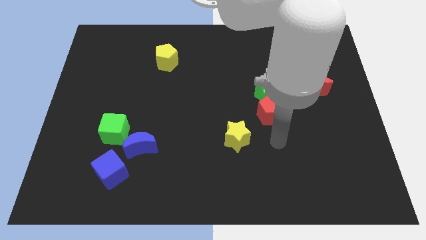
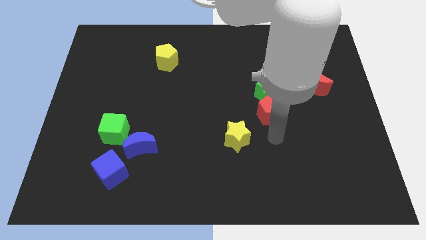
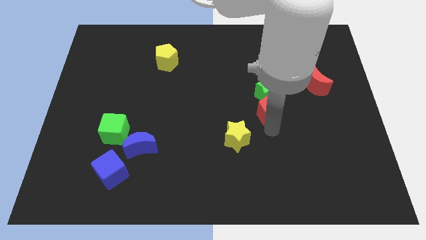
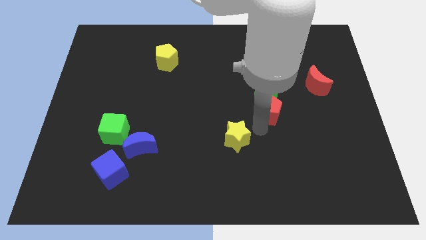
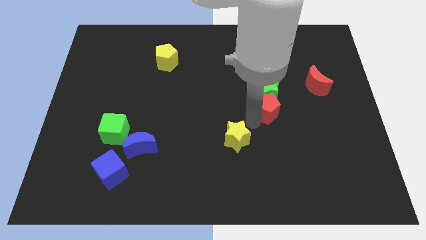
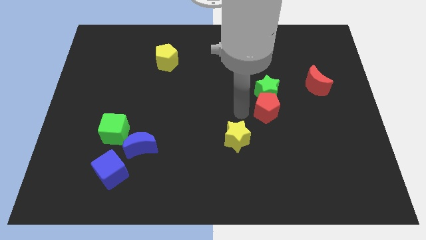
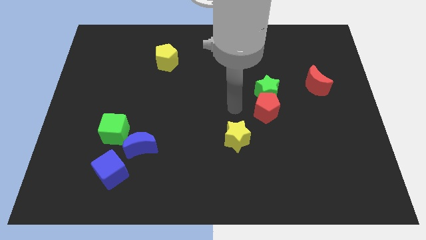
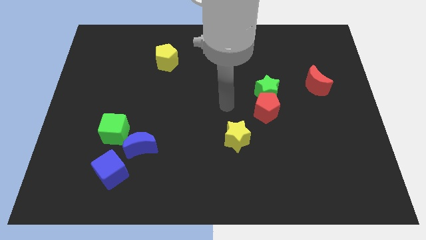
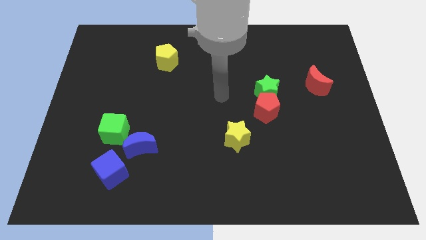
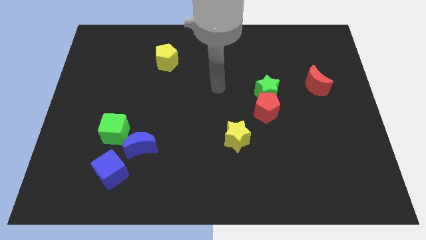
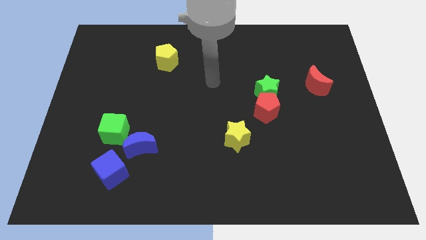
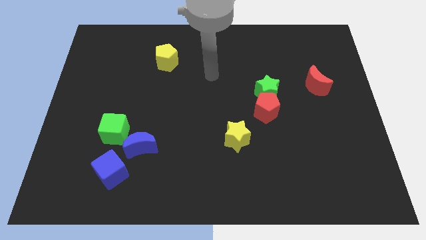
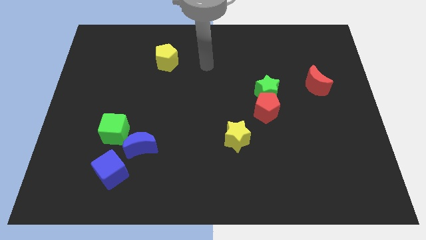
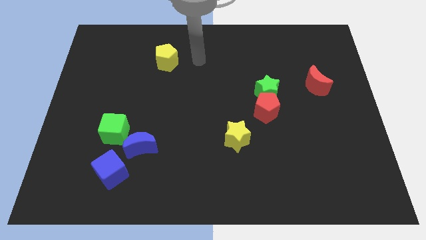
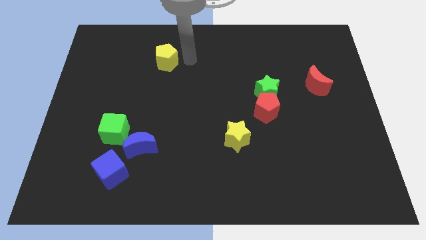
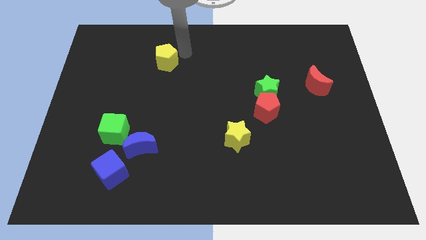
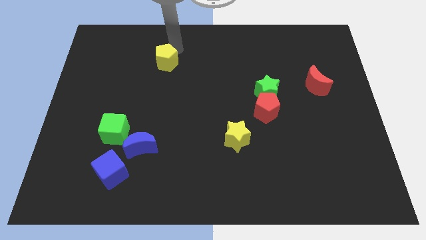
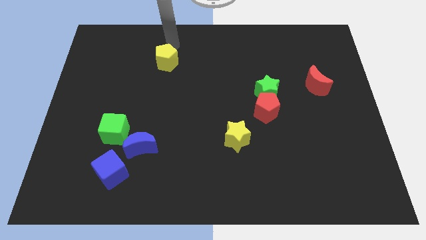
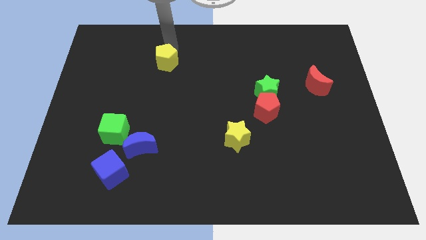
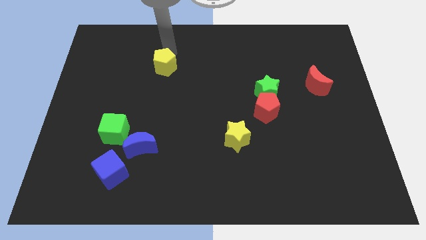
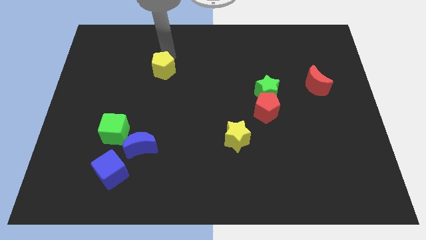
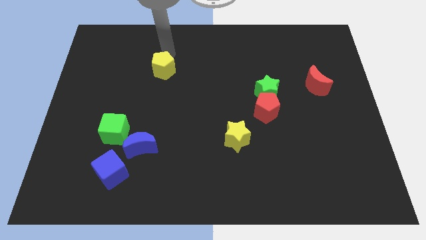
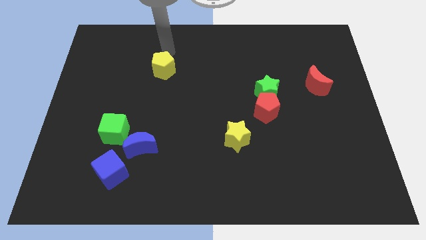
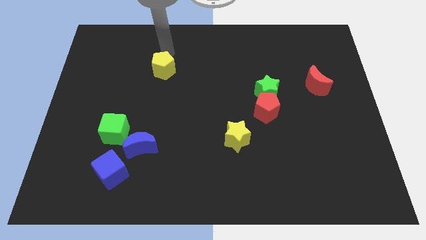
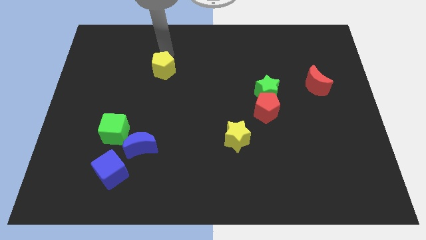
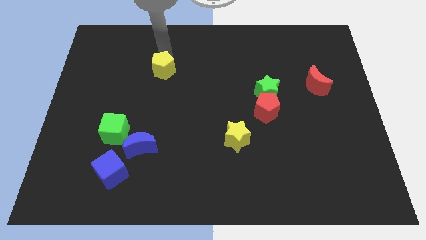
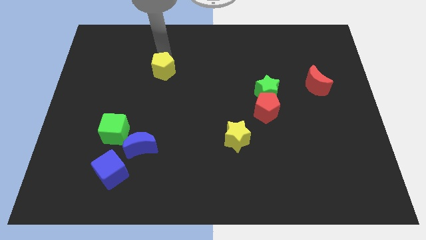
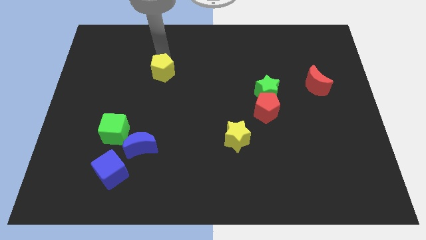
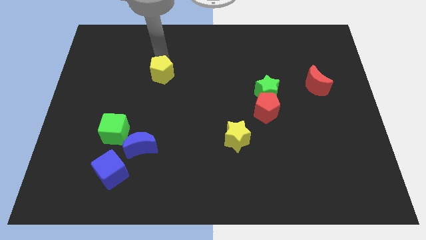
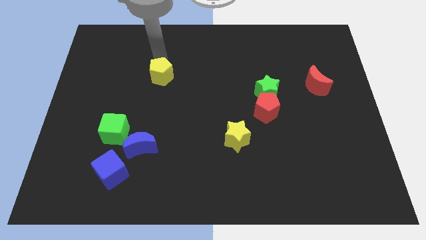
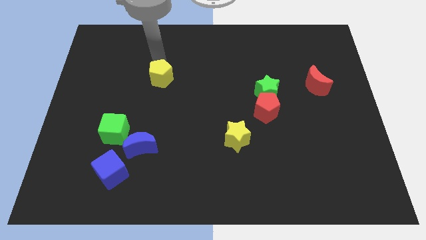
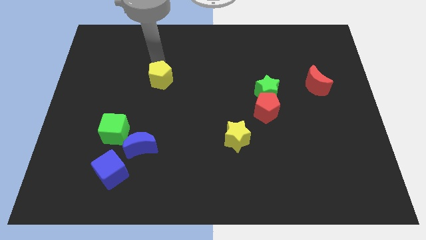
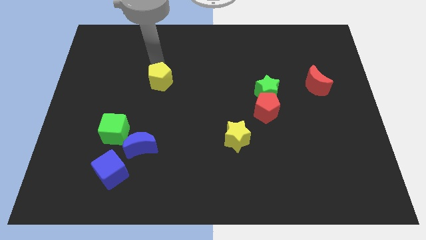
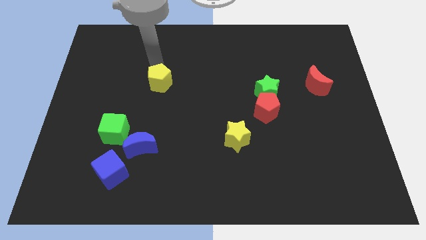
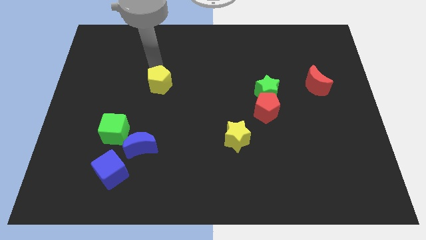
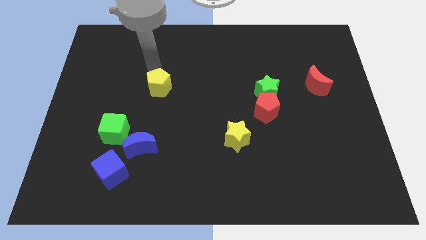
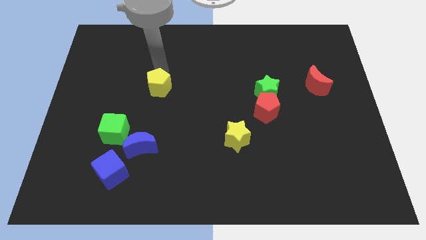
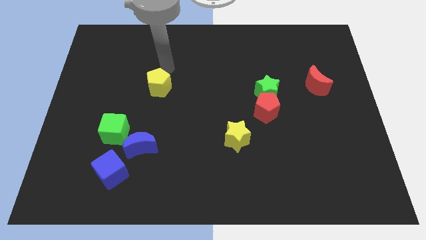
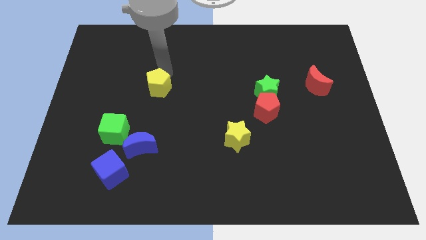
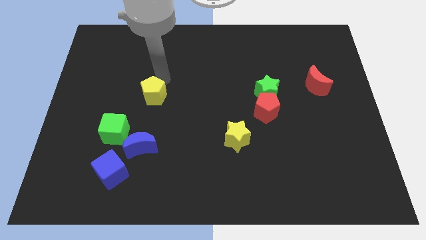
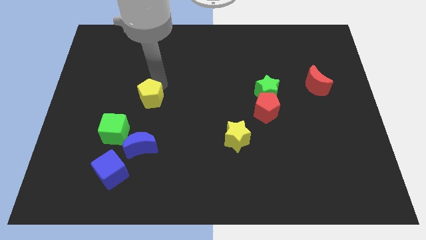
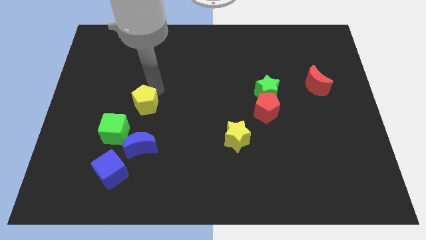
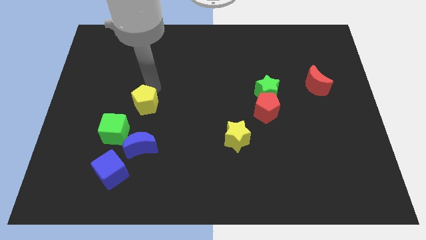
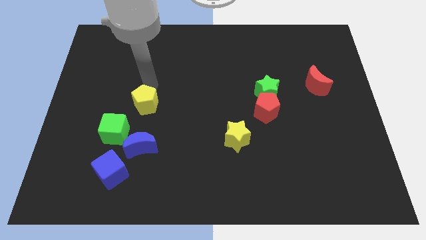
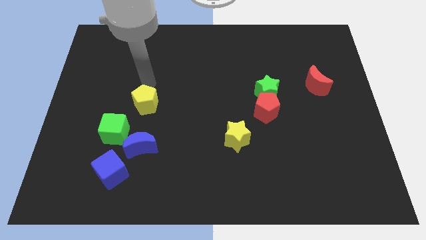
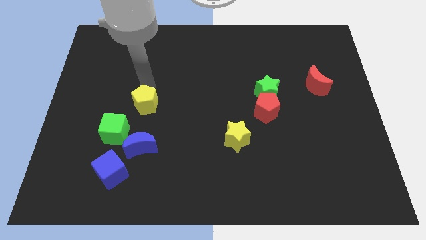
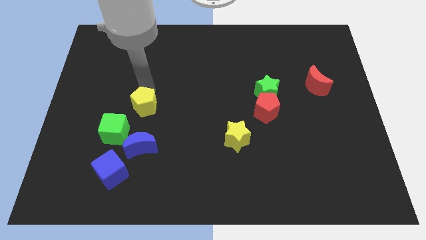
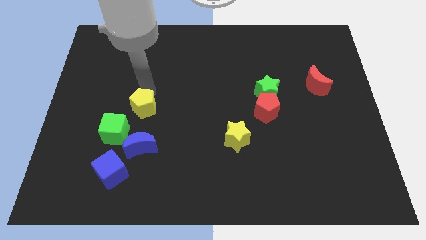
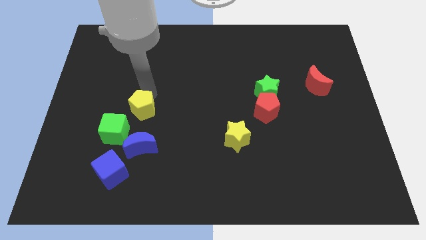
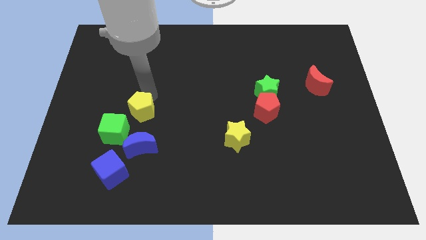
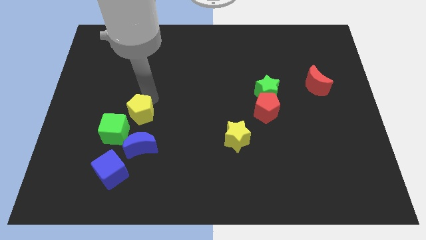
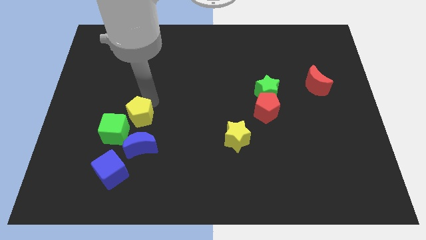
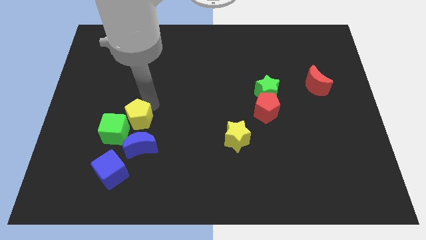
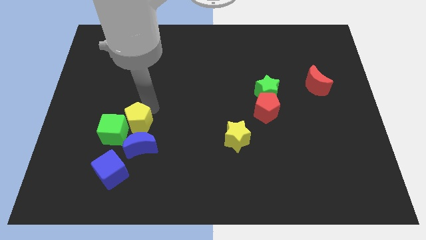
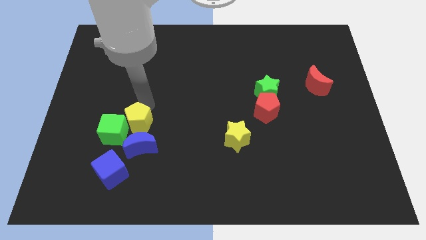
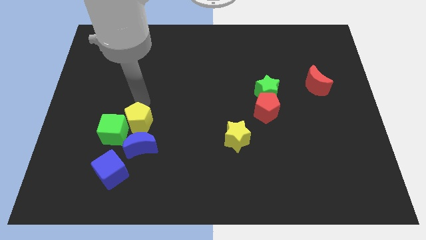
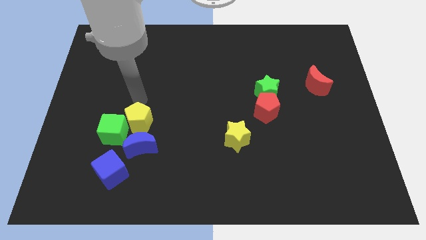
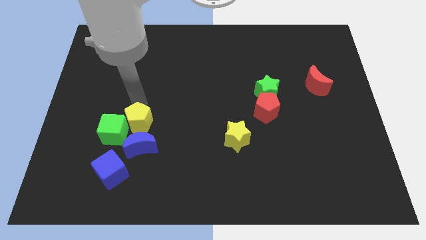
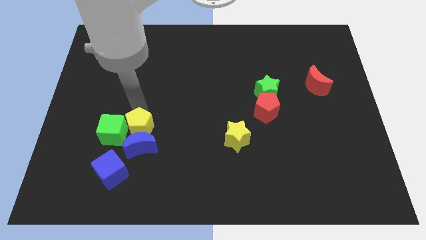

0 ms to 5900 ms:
slide the yellow pentagon close to the blue moon

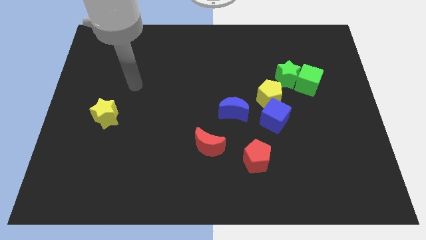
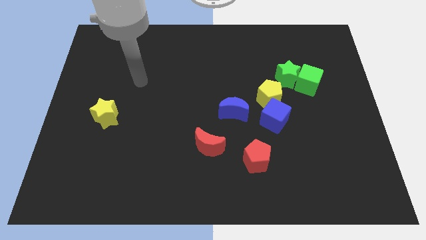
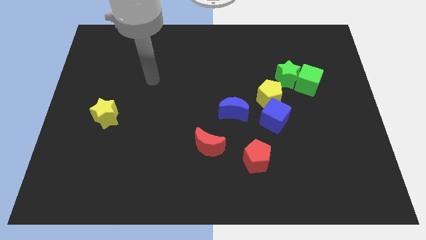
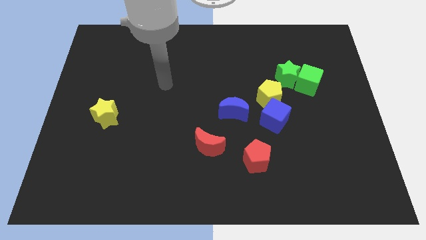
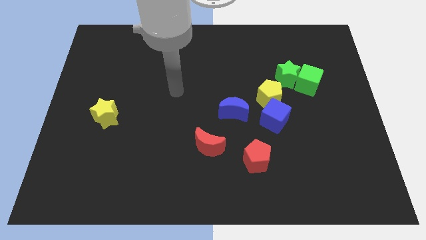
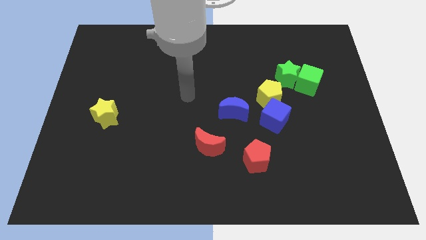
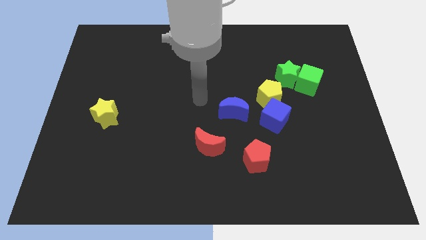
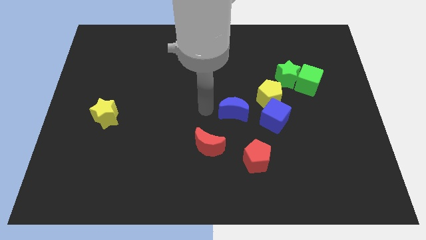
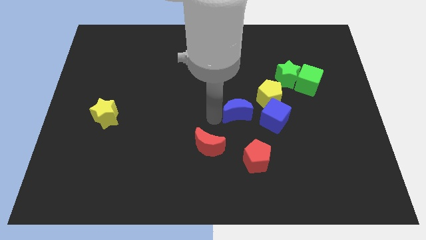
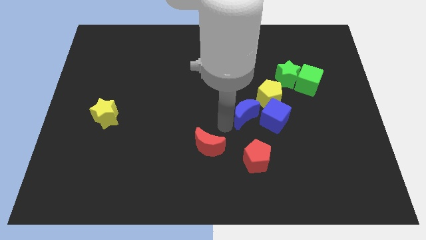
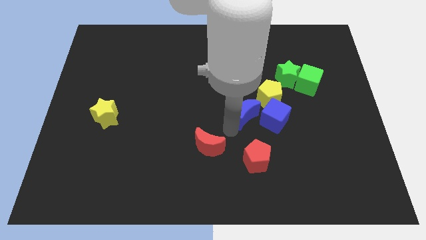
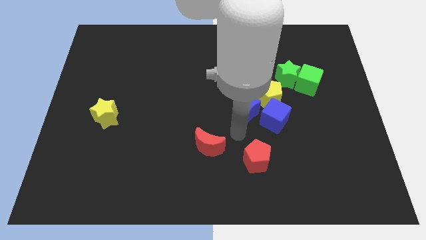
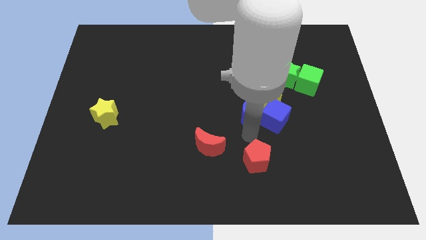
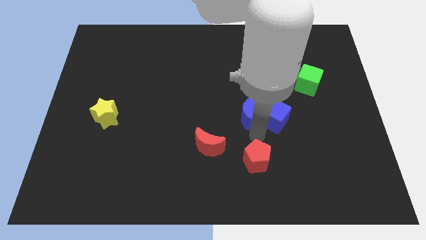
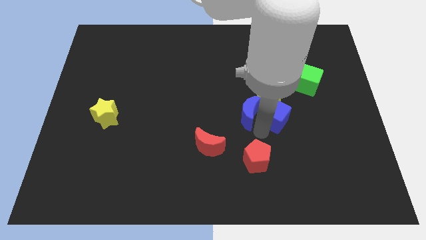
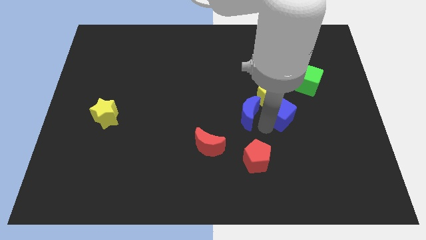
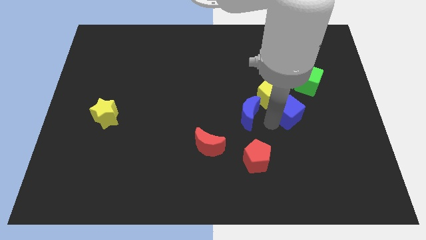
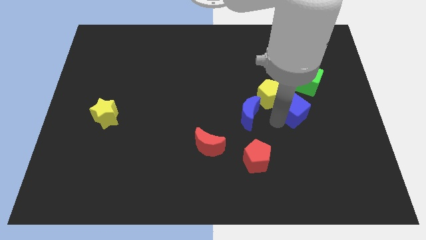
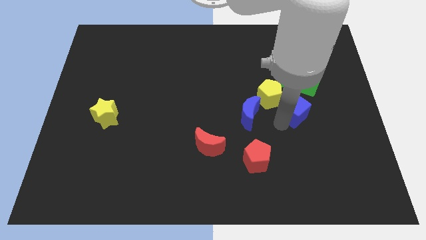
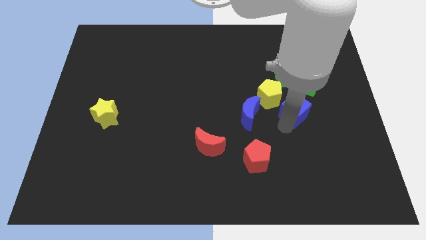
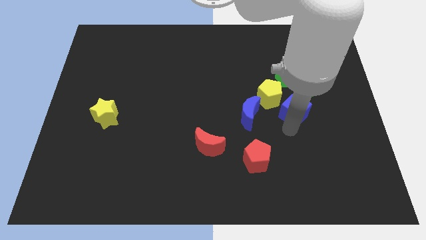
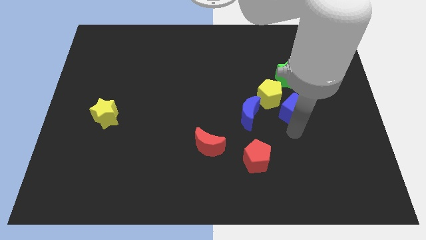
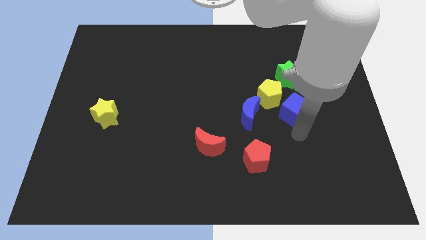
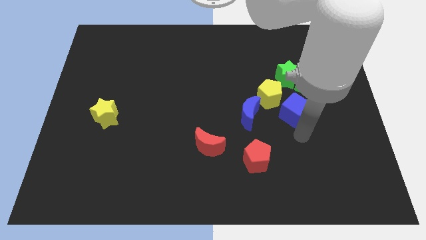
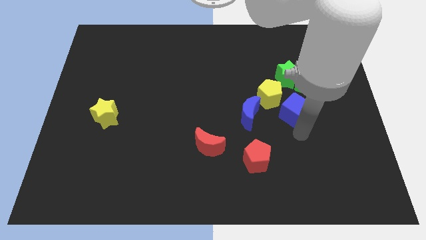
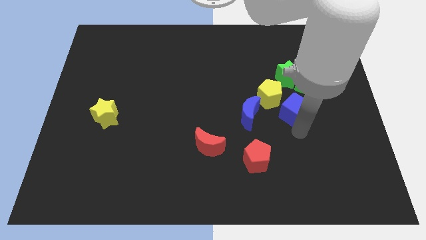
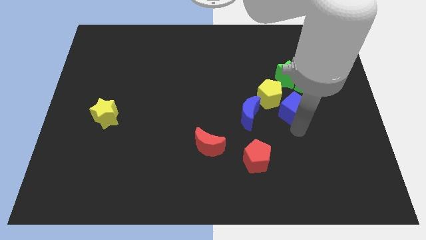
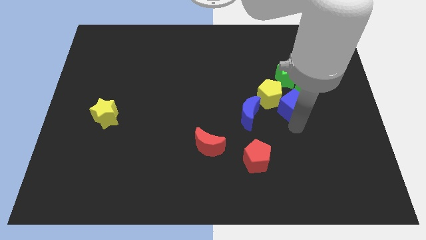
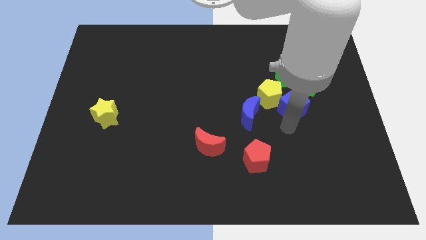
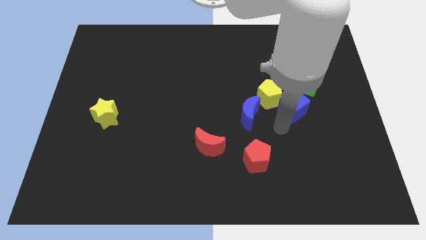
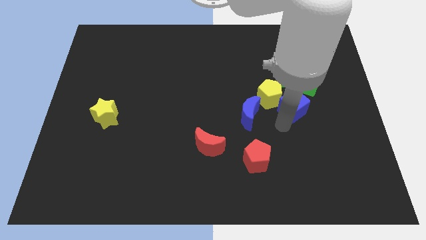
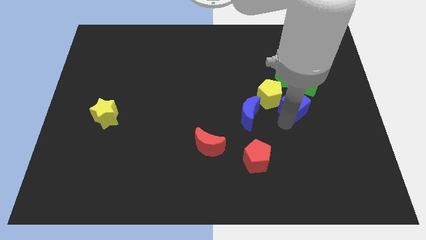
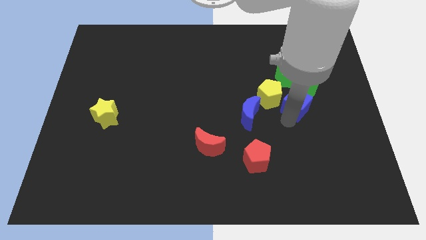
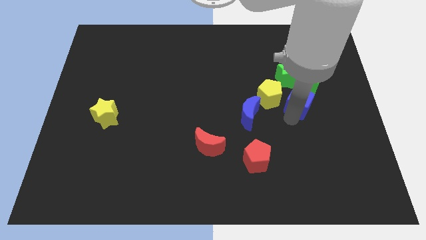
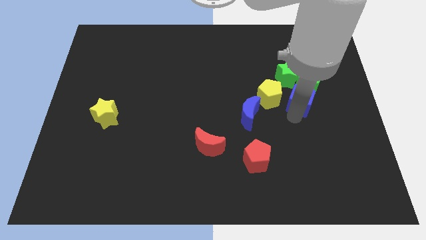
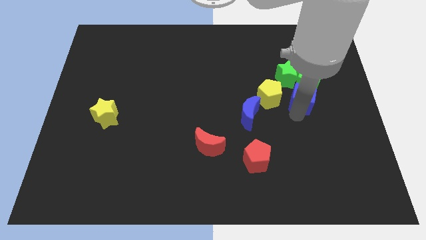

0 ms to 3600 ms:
move the blue cube towards the green cube
